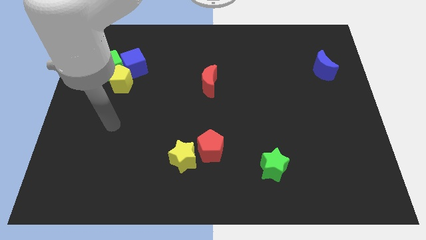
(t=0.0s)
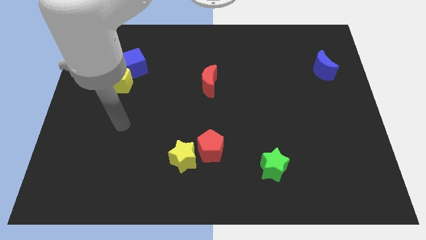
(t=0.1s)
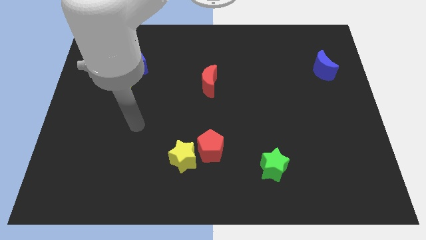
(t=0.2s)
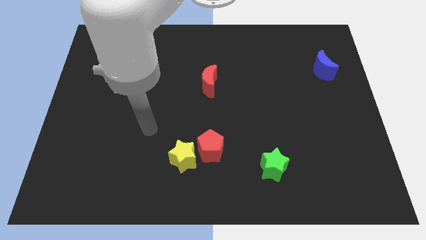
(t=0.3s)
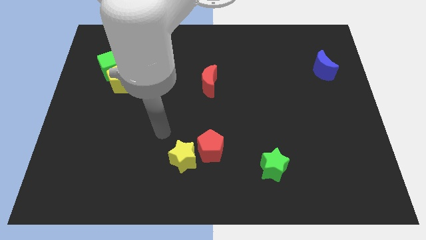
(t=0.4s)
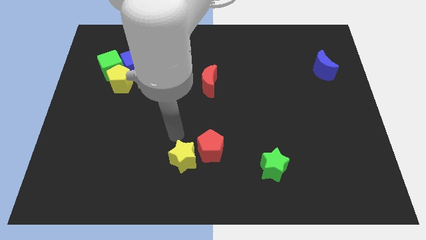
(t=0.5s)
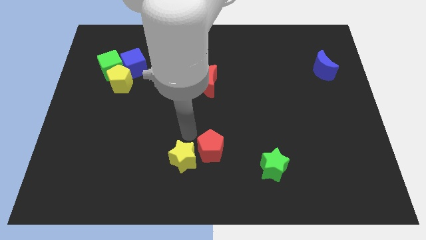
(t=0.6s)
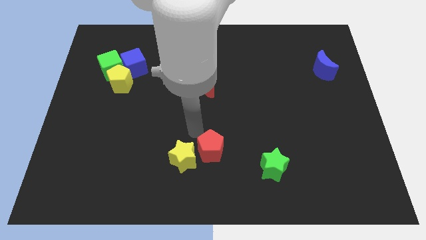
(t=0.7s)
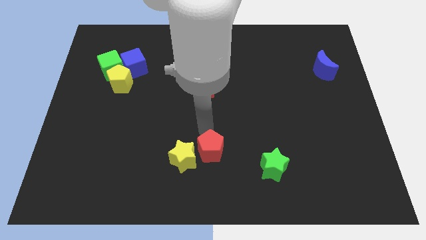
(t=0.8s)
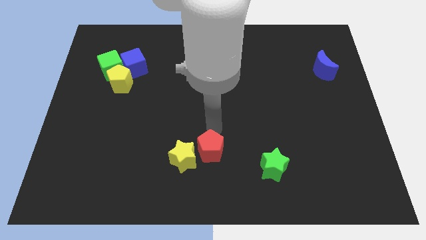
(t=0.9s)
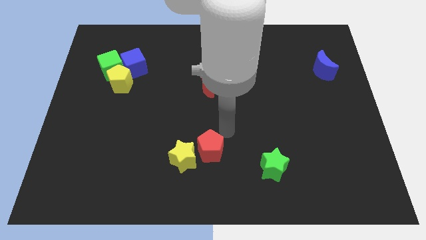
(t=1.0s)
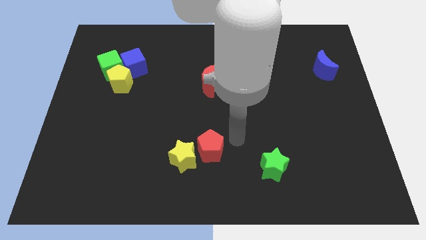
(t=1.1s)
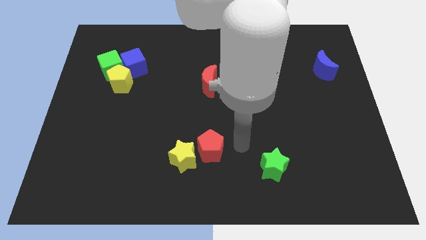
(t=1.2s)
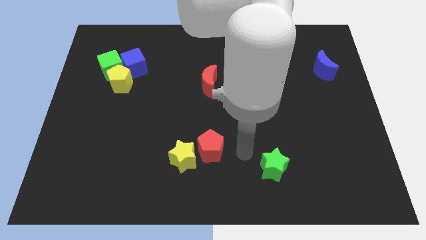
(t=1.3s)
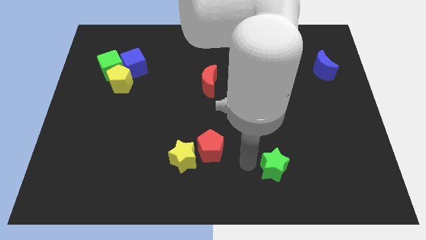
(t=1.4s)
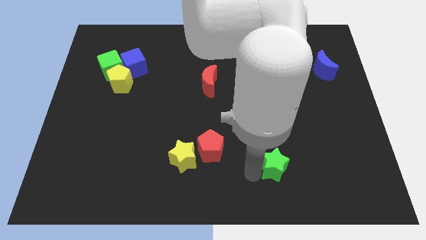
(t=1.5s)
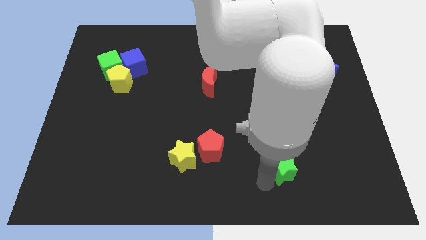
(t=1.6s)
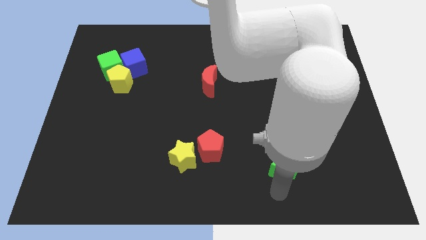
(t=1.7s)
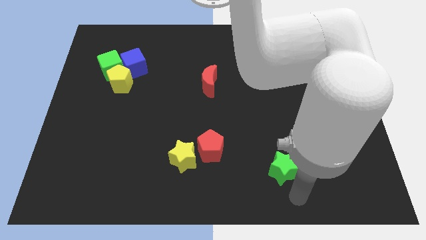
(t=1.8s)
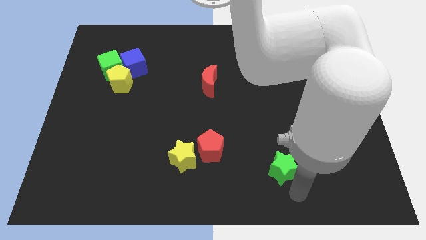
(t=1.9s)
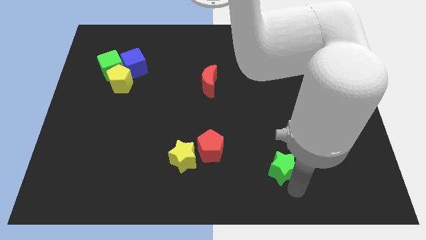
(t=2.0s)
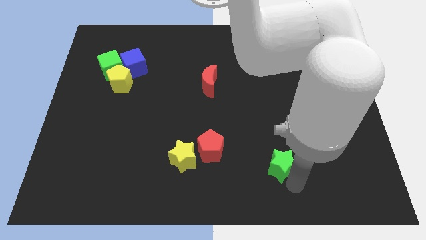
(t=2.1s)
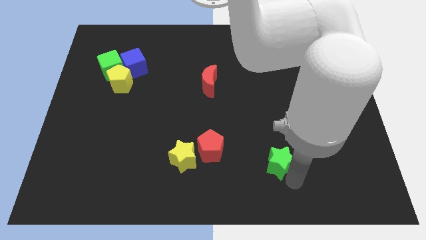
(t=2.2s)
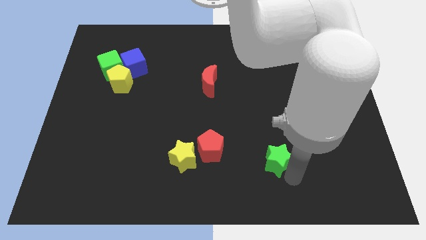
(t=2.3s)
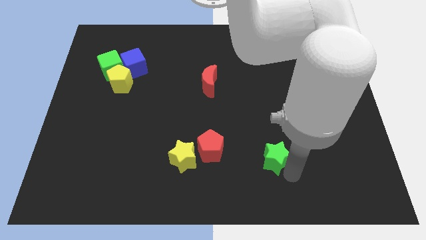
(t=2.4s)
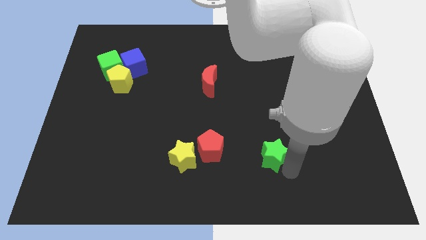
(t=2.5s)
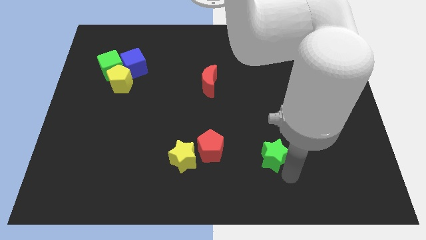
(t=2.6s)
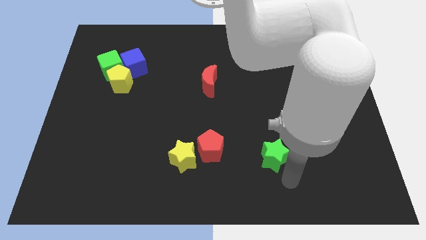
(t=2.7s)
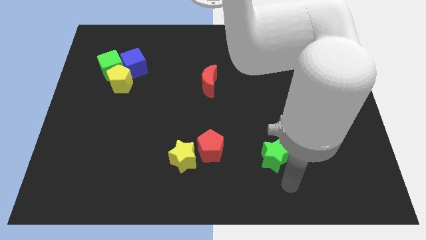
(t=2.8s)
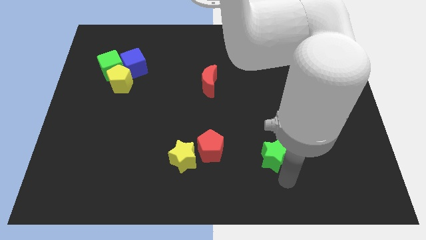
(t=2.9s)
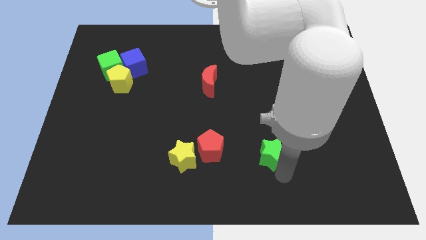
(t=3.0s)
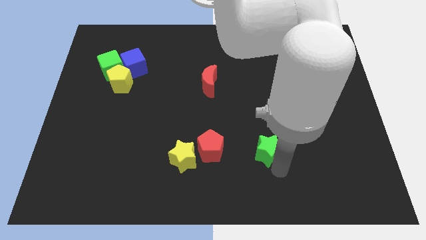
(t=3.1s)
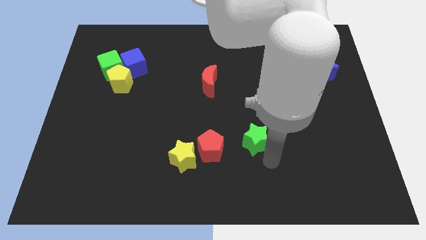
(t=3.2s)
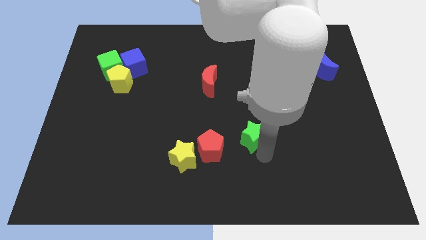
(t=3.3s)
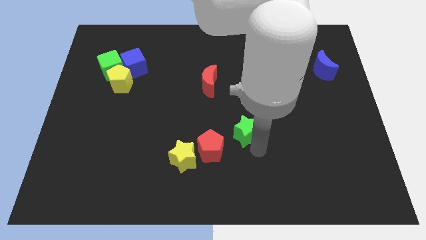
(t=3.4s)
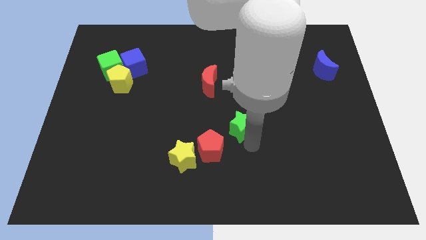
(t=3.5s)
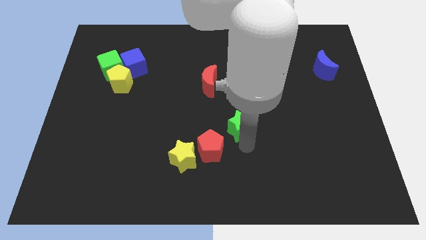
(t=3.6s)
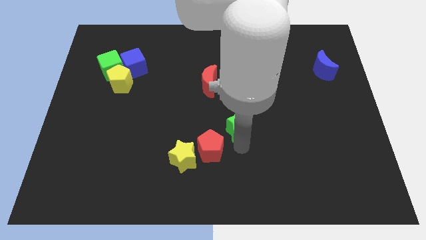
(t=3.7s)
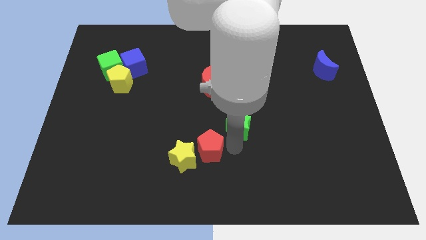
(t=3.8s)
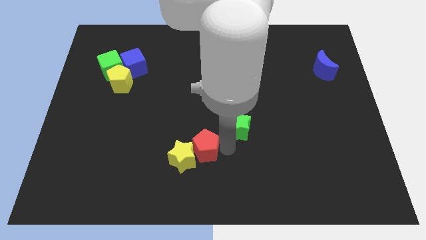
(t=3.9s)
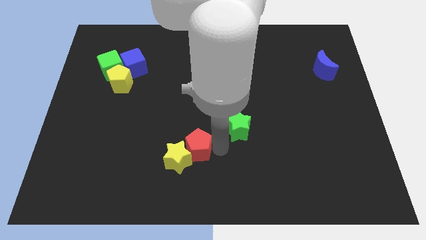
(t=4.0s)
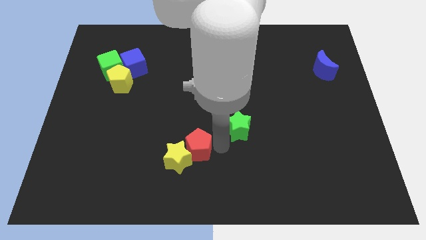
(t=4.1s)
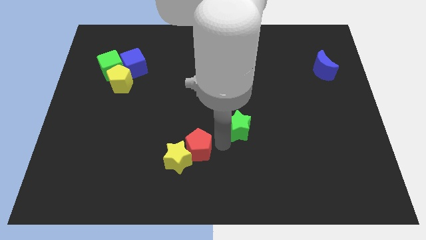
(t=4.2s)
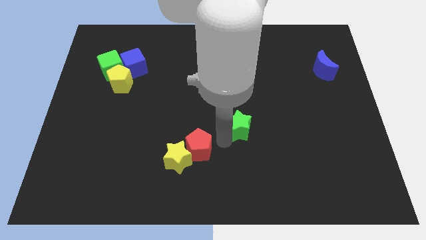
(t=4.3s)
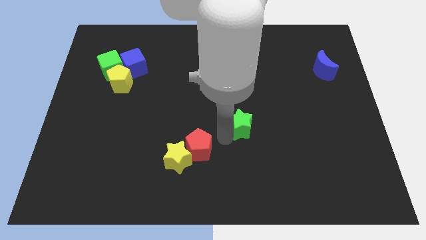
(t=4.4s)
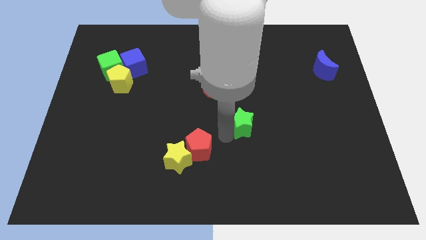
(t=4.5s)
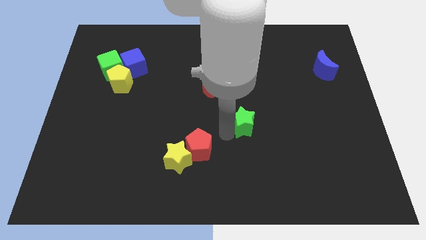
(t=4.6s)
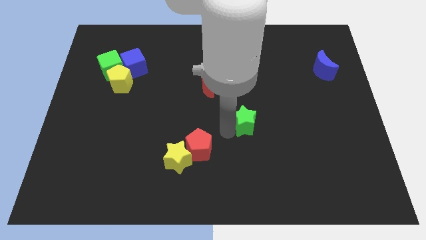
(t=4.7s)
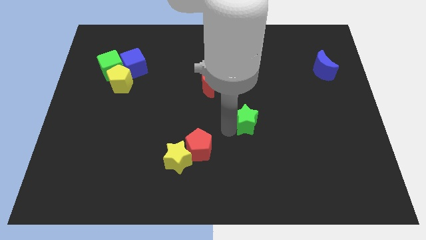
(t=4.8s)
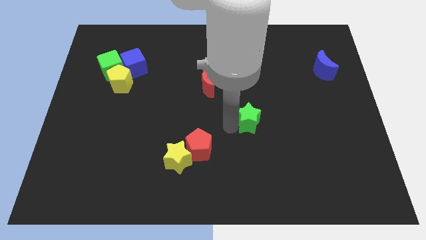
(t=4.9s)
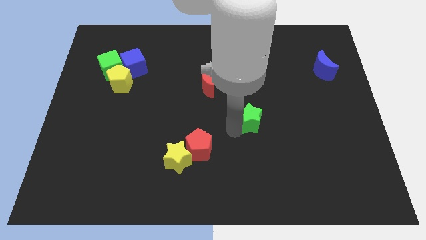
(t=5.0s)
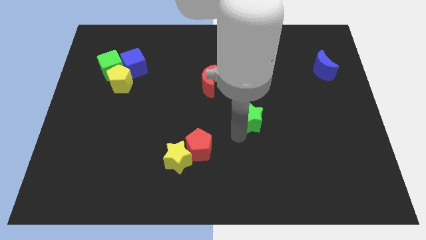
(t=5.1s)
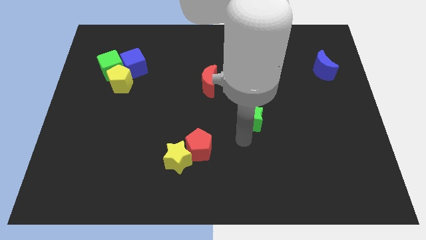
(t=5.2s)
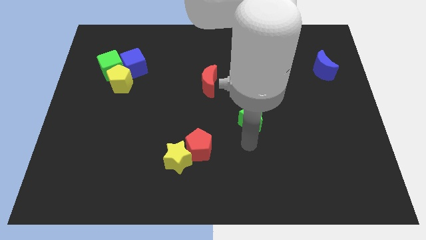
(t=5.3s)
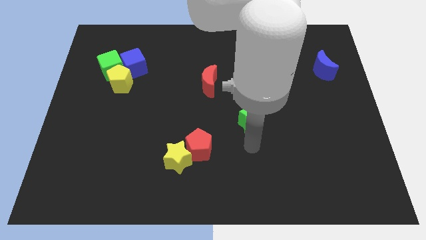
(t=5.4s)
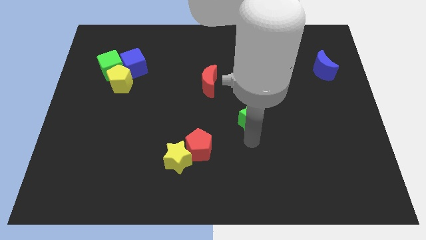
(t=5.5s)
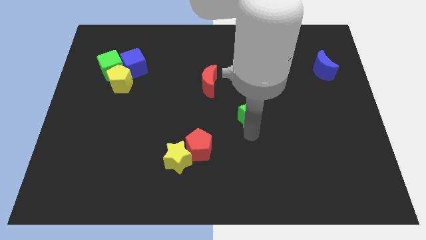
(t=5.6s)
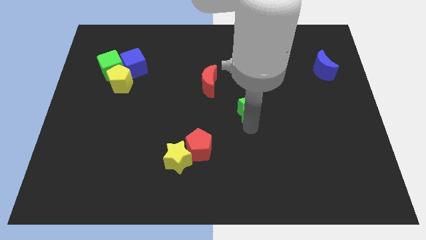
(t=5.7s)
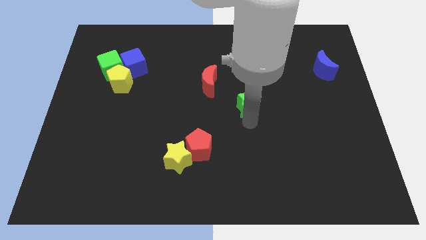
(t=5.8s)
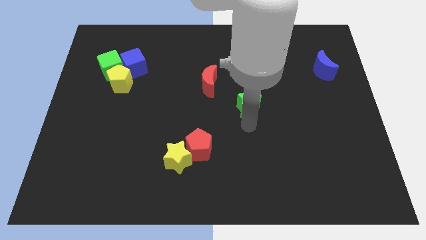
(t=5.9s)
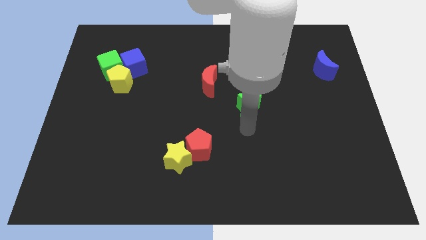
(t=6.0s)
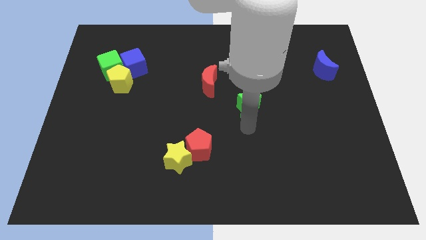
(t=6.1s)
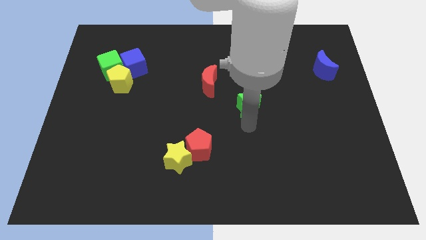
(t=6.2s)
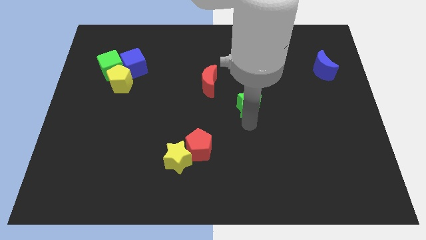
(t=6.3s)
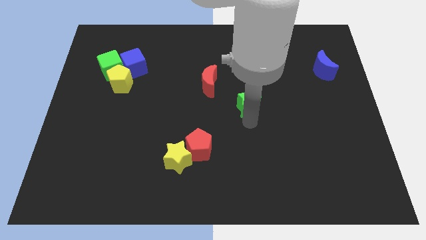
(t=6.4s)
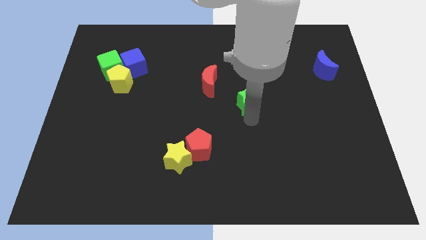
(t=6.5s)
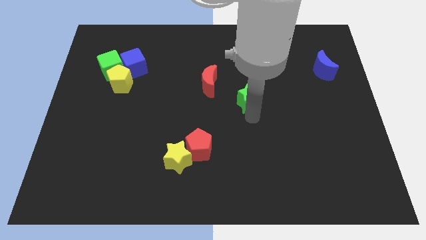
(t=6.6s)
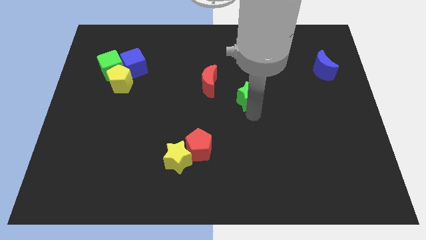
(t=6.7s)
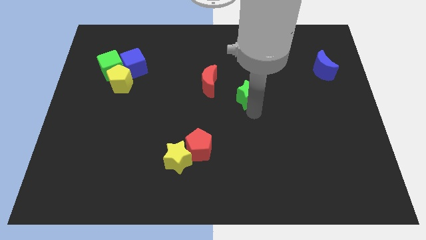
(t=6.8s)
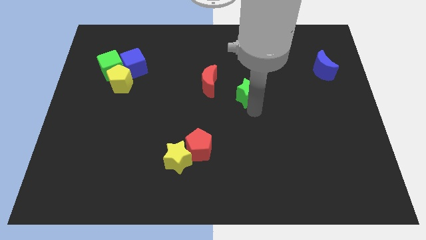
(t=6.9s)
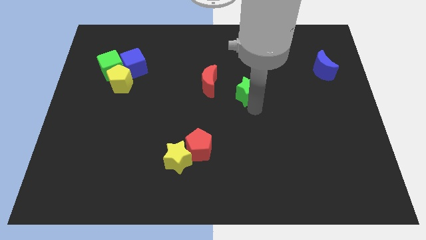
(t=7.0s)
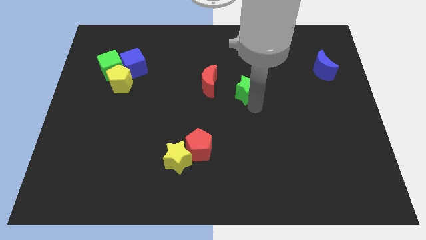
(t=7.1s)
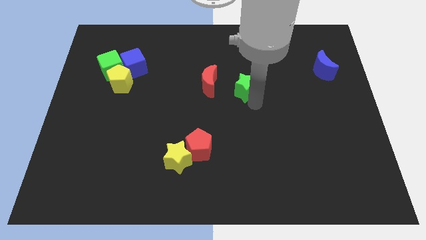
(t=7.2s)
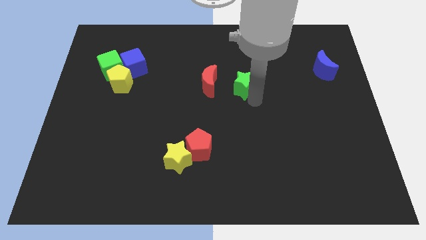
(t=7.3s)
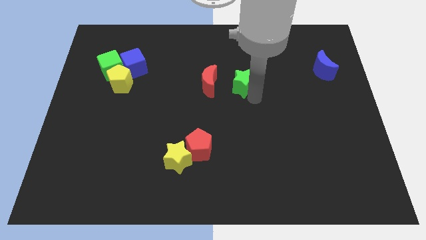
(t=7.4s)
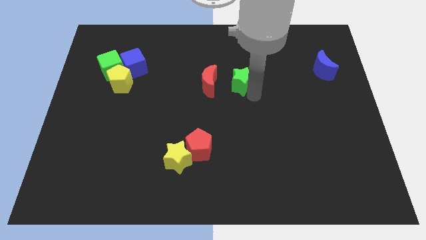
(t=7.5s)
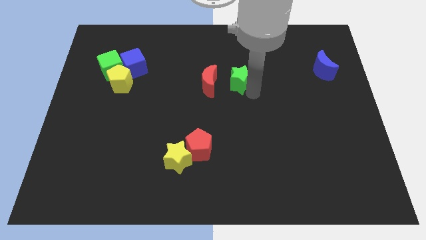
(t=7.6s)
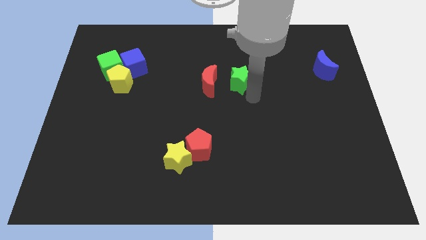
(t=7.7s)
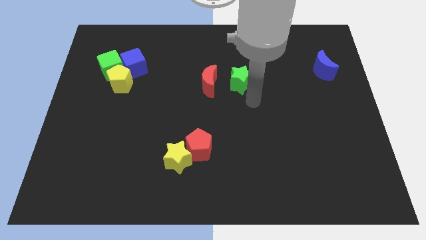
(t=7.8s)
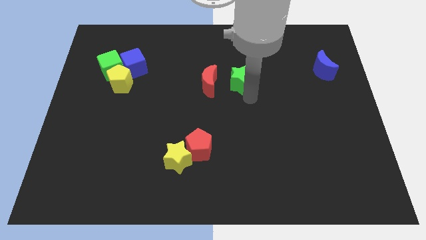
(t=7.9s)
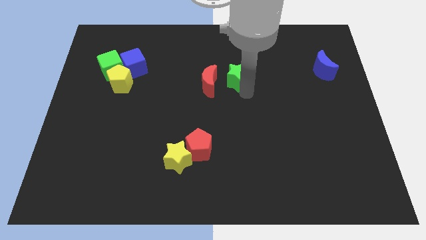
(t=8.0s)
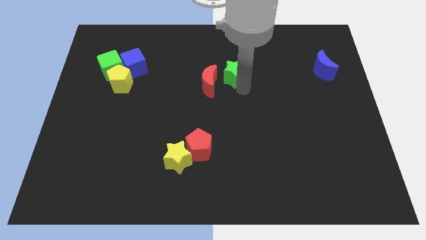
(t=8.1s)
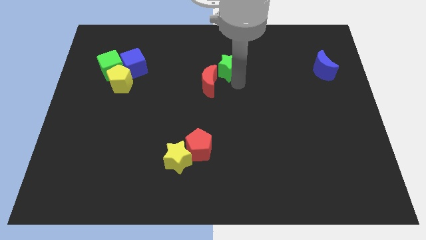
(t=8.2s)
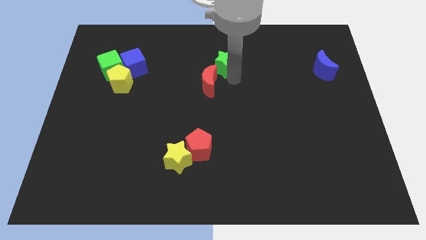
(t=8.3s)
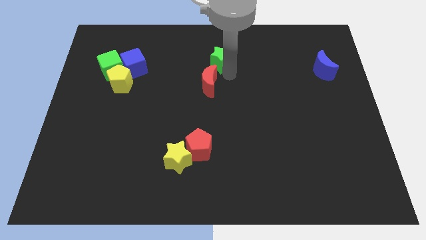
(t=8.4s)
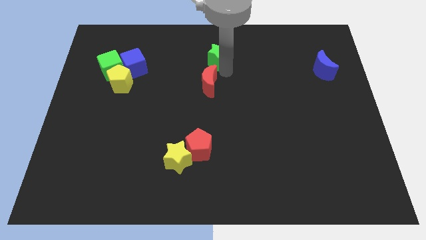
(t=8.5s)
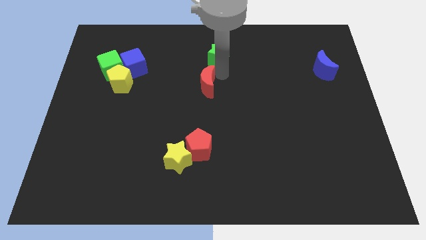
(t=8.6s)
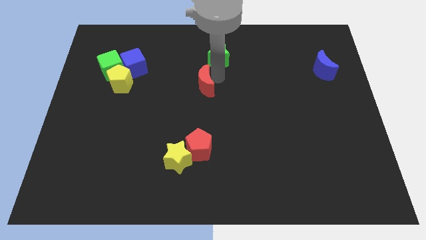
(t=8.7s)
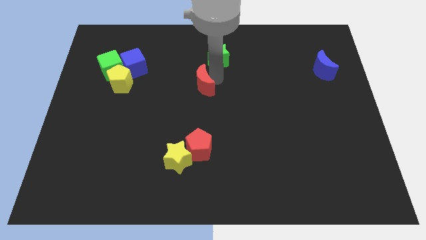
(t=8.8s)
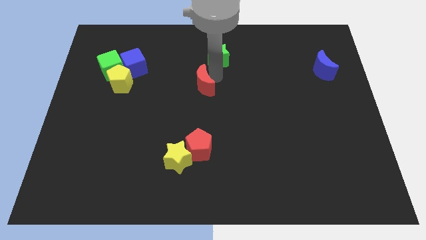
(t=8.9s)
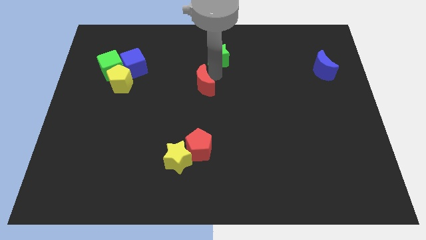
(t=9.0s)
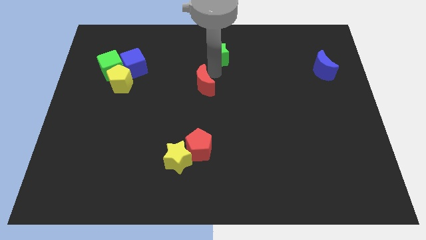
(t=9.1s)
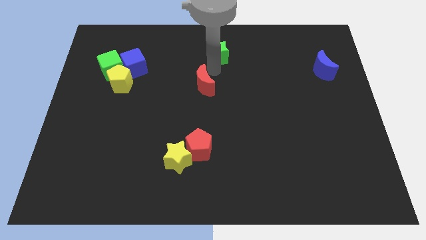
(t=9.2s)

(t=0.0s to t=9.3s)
push the green star to the top side
